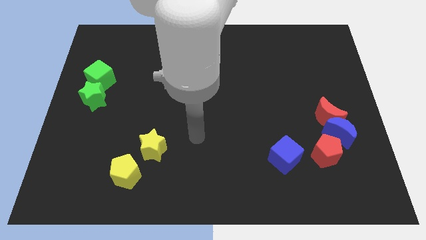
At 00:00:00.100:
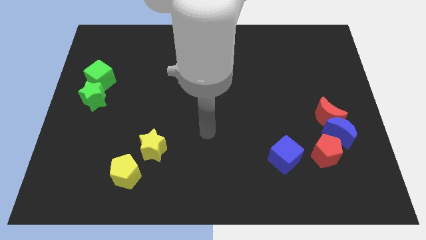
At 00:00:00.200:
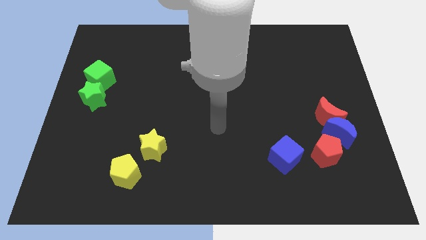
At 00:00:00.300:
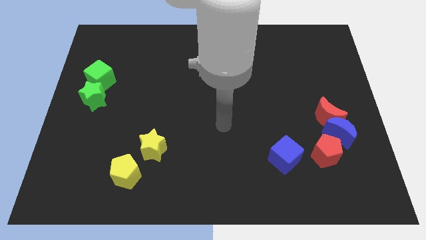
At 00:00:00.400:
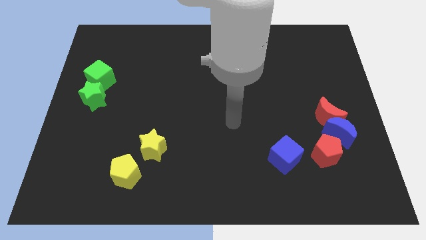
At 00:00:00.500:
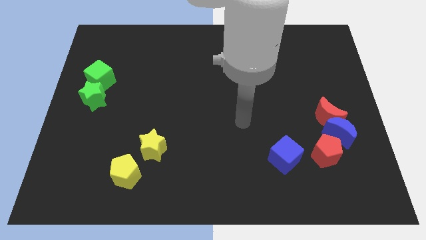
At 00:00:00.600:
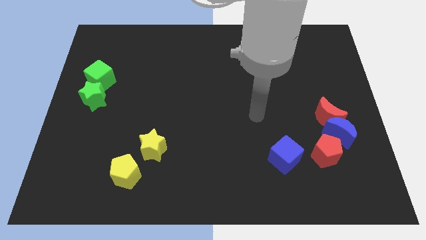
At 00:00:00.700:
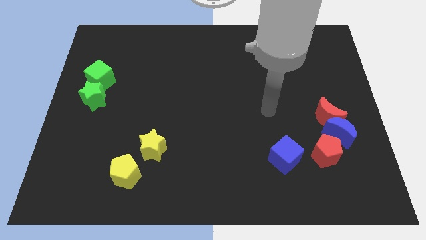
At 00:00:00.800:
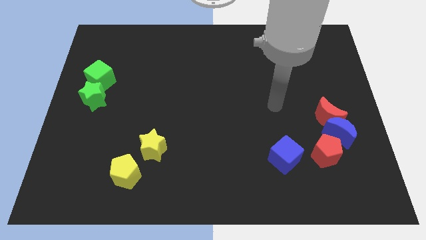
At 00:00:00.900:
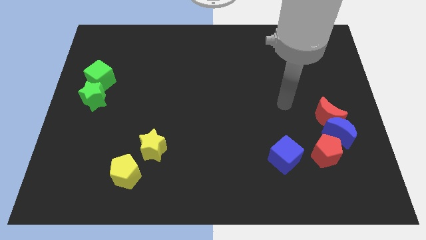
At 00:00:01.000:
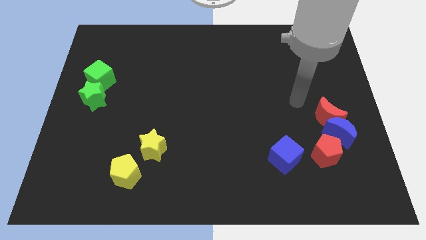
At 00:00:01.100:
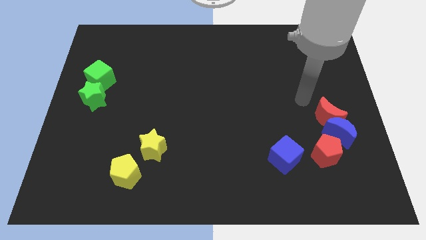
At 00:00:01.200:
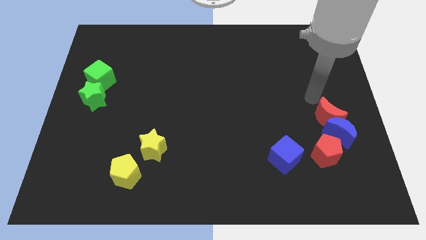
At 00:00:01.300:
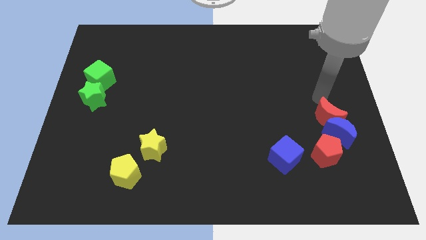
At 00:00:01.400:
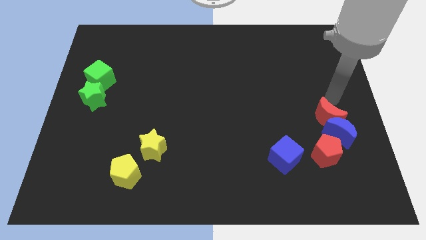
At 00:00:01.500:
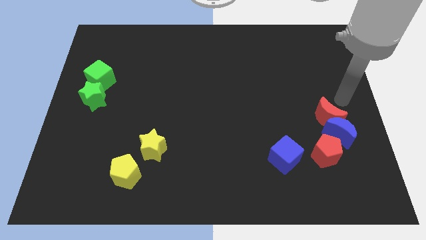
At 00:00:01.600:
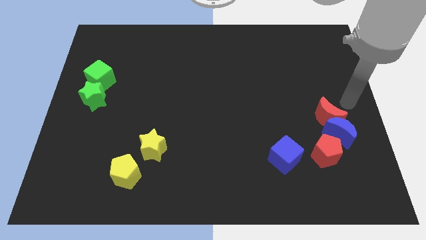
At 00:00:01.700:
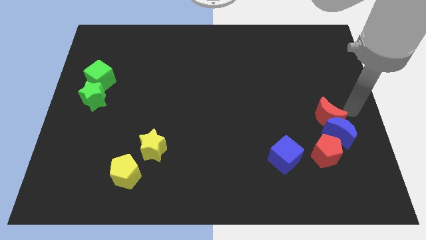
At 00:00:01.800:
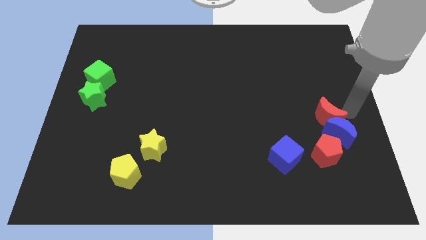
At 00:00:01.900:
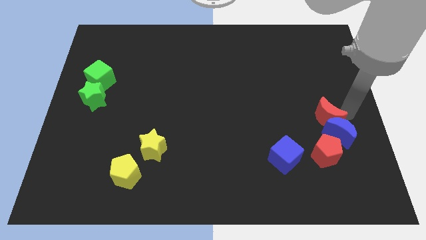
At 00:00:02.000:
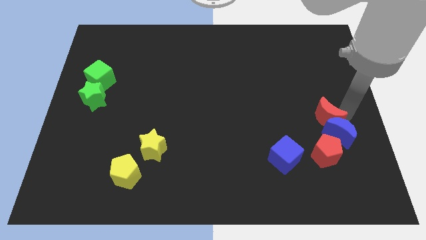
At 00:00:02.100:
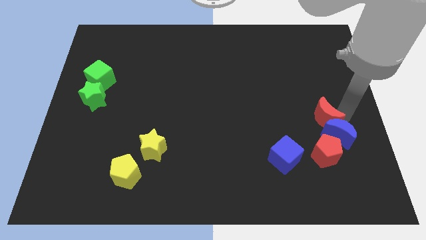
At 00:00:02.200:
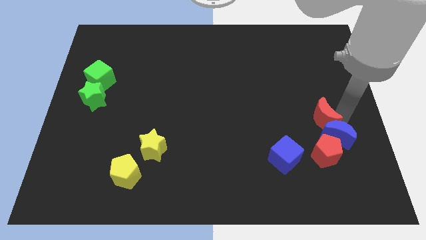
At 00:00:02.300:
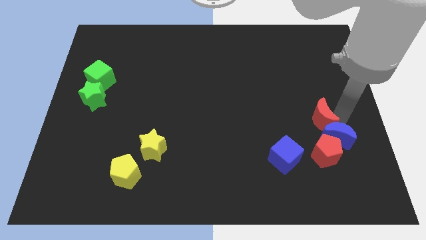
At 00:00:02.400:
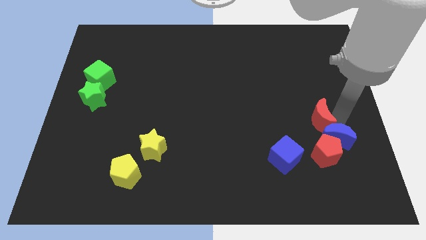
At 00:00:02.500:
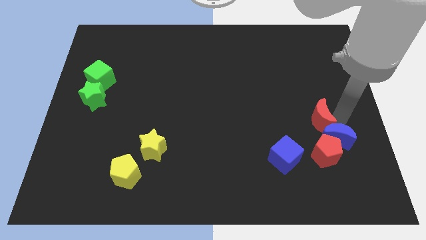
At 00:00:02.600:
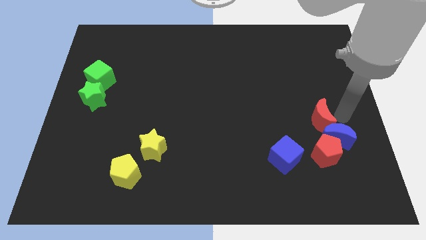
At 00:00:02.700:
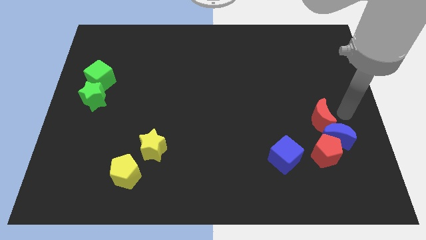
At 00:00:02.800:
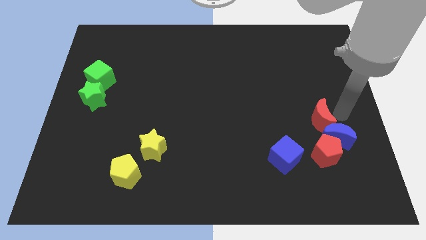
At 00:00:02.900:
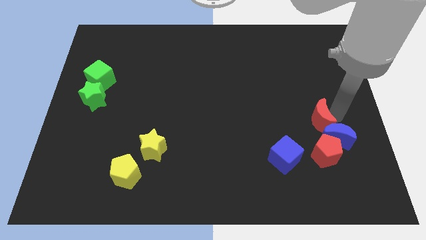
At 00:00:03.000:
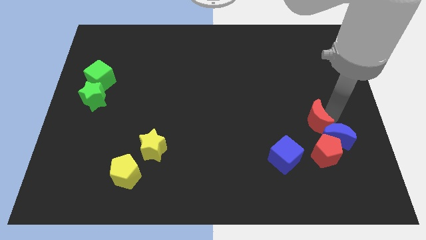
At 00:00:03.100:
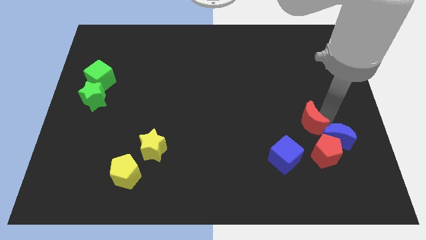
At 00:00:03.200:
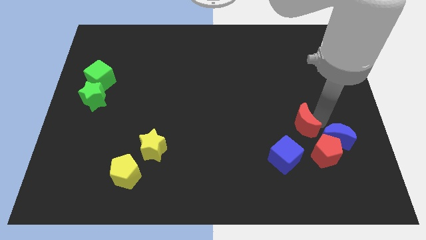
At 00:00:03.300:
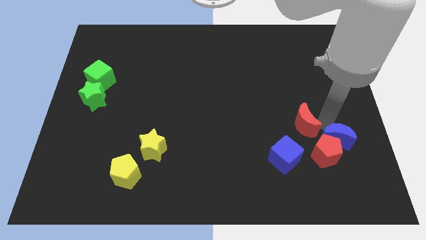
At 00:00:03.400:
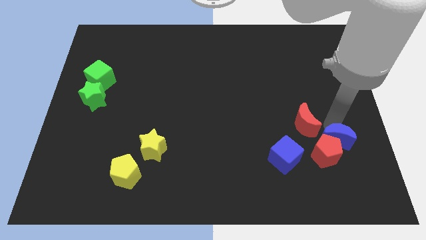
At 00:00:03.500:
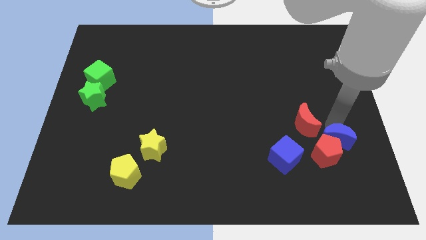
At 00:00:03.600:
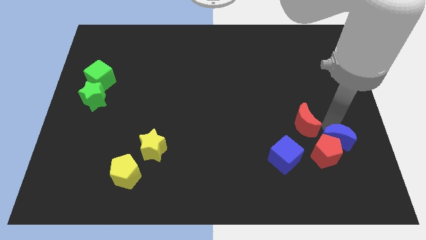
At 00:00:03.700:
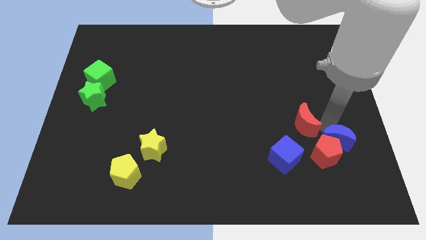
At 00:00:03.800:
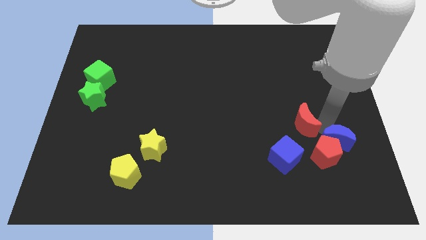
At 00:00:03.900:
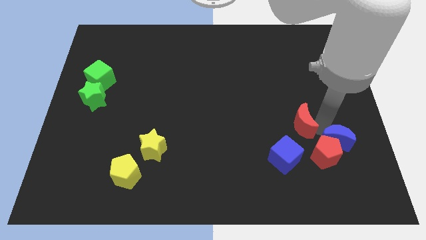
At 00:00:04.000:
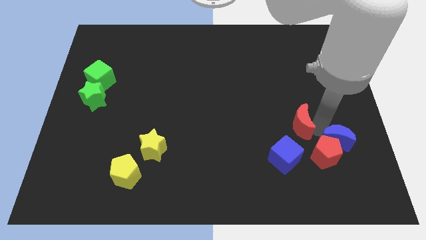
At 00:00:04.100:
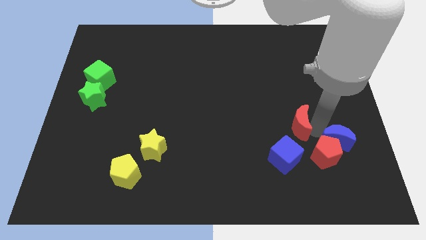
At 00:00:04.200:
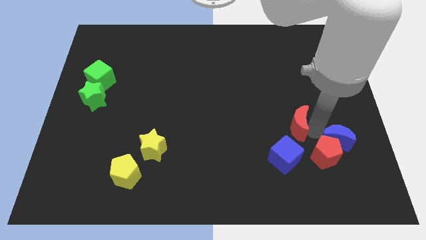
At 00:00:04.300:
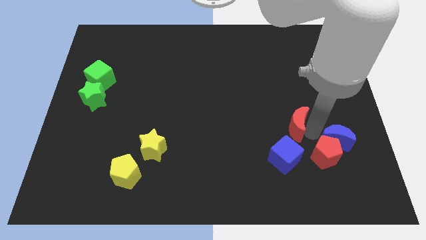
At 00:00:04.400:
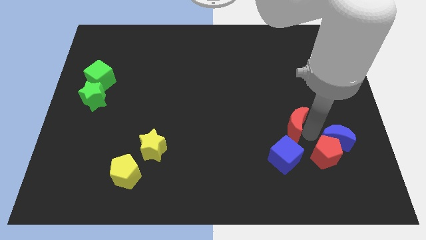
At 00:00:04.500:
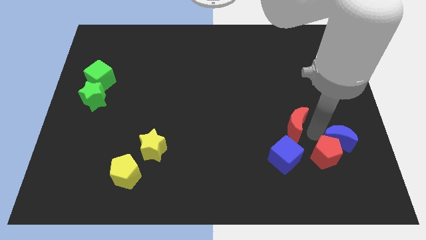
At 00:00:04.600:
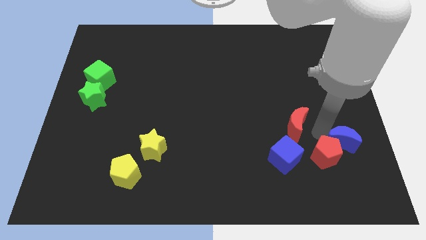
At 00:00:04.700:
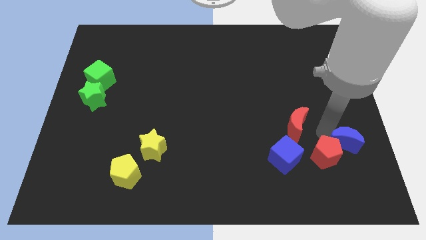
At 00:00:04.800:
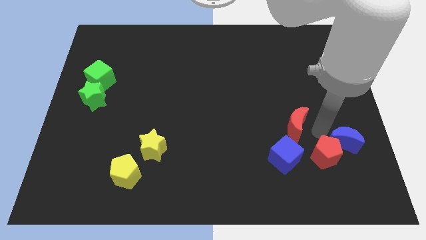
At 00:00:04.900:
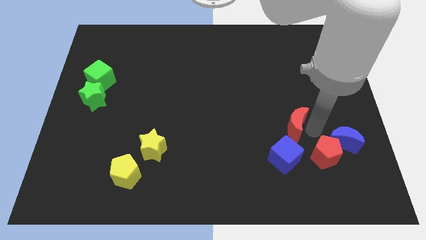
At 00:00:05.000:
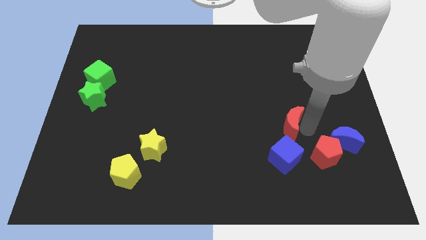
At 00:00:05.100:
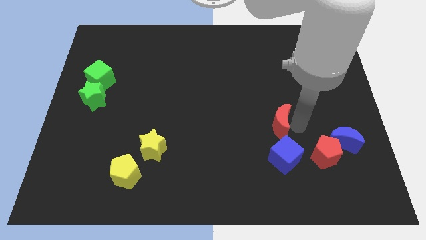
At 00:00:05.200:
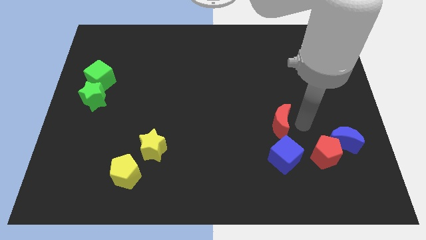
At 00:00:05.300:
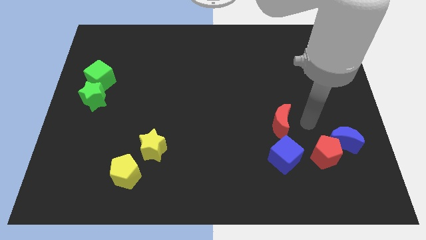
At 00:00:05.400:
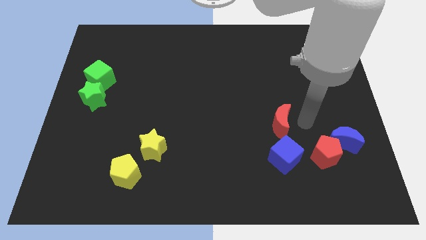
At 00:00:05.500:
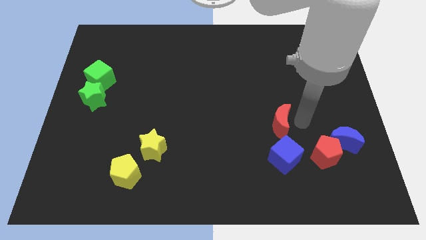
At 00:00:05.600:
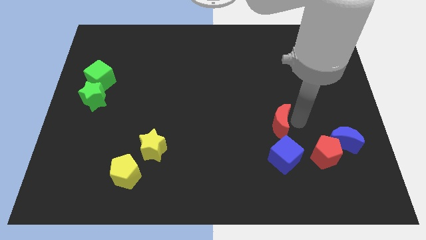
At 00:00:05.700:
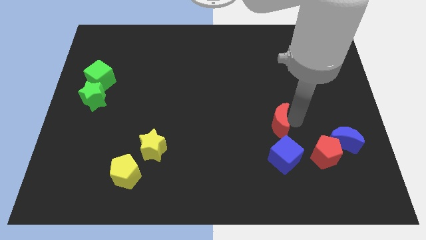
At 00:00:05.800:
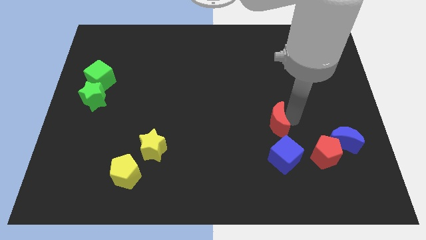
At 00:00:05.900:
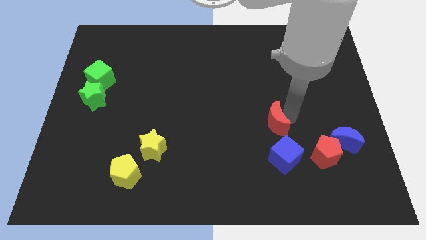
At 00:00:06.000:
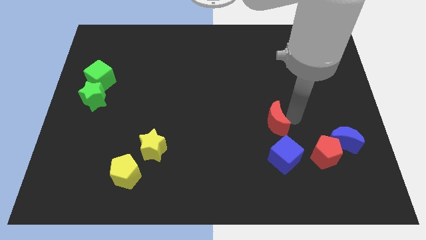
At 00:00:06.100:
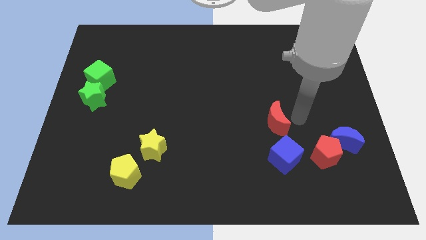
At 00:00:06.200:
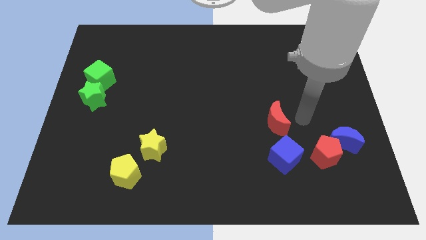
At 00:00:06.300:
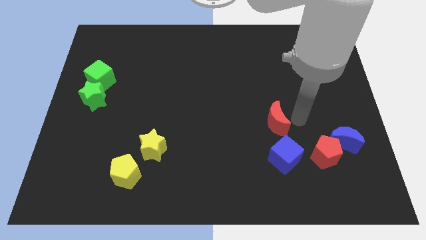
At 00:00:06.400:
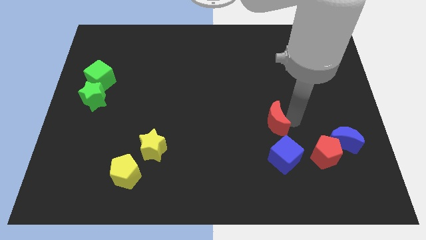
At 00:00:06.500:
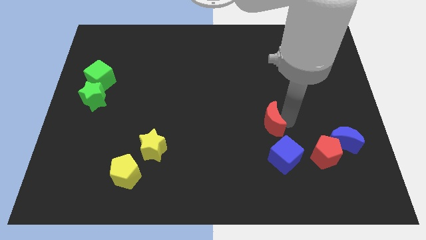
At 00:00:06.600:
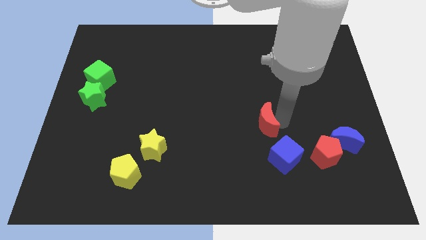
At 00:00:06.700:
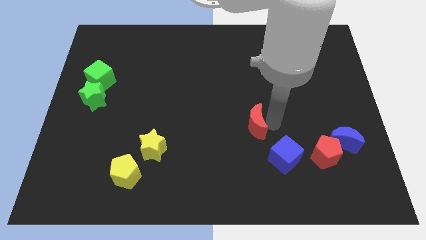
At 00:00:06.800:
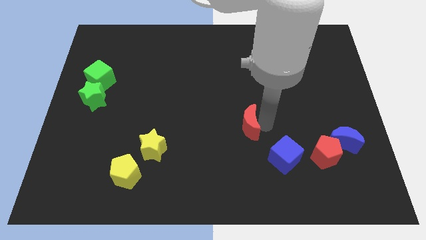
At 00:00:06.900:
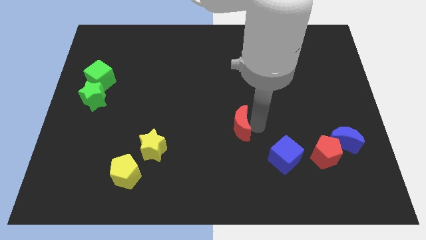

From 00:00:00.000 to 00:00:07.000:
slide the red moon to the left

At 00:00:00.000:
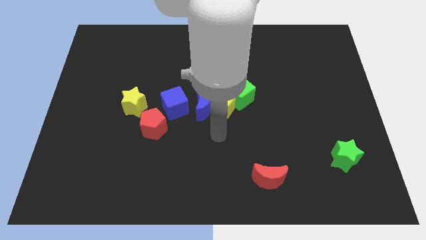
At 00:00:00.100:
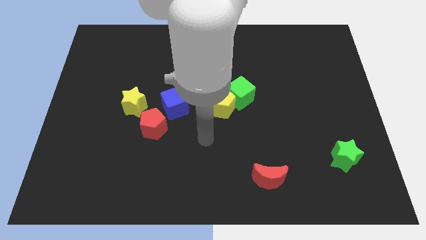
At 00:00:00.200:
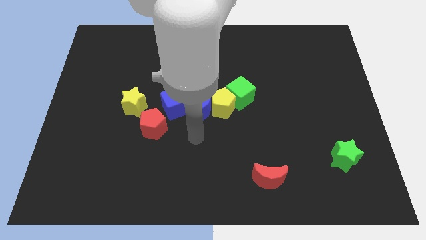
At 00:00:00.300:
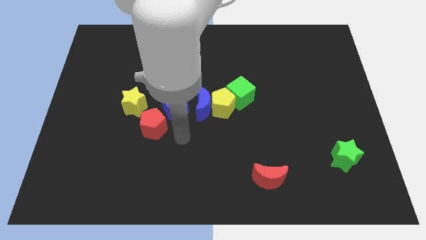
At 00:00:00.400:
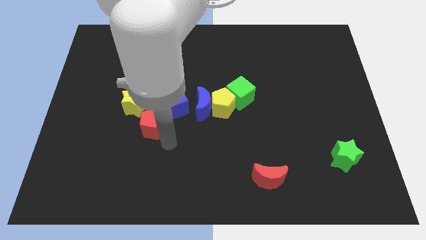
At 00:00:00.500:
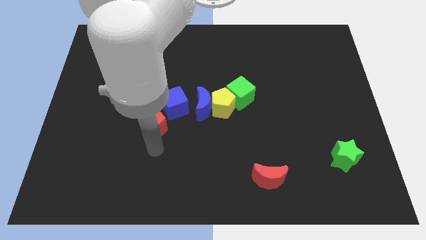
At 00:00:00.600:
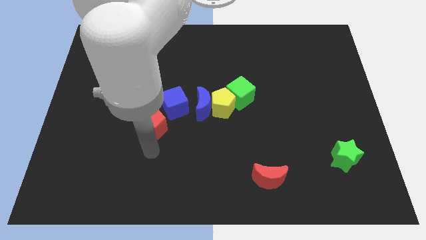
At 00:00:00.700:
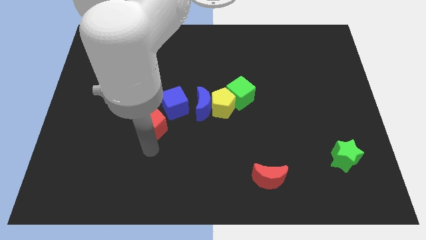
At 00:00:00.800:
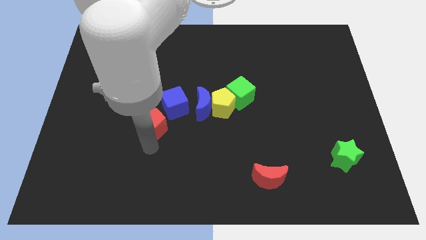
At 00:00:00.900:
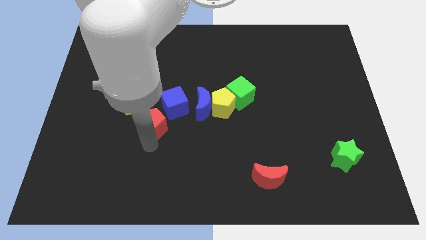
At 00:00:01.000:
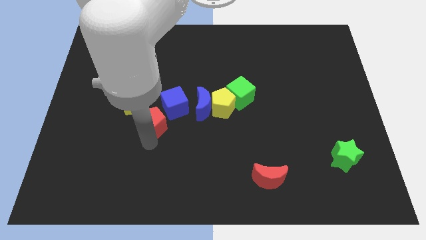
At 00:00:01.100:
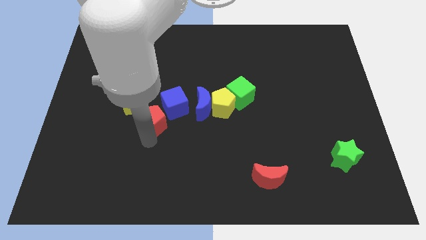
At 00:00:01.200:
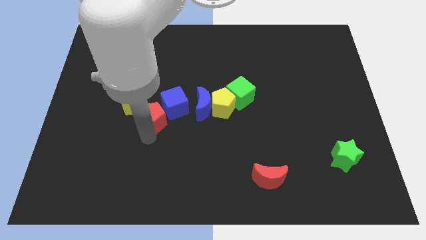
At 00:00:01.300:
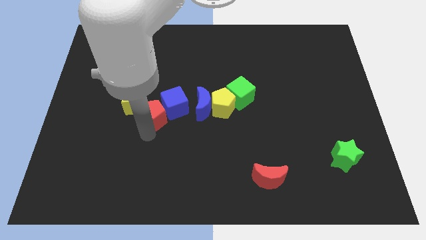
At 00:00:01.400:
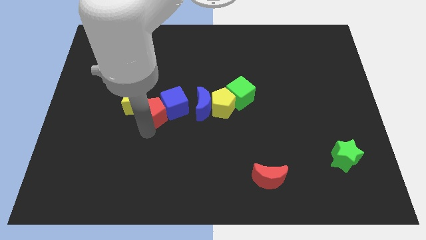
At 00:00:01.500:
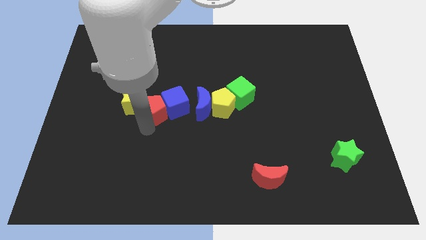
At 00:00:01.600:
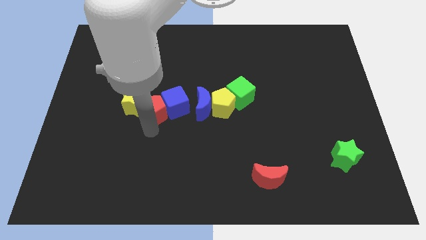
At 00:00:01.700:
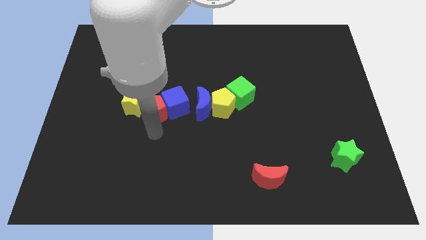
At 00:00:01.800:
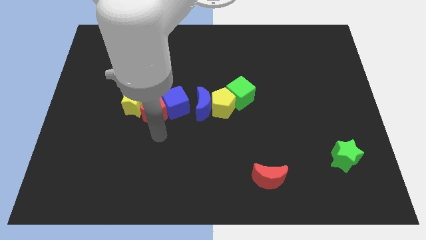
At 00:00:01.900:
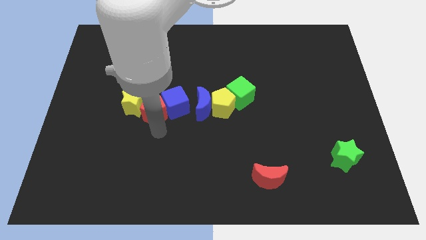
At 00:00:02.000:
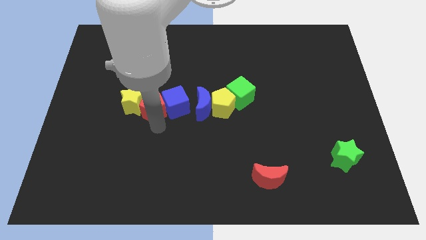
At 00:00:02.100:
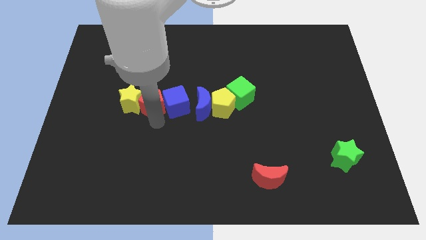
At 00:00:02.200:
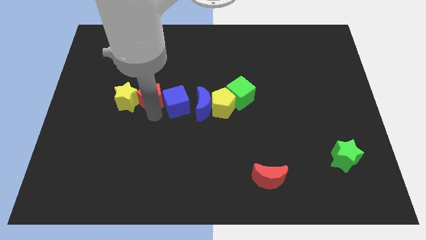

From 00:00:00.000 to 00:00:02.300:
slightly move the red pentagon upwards
